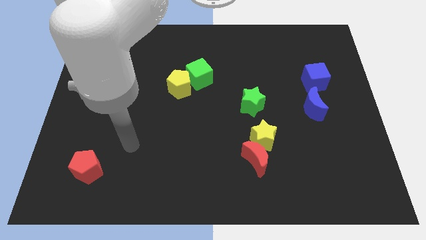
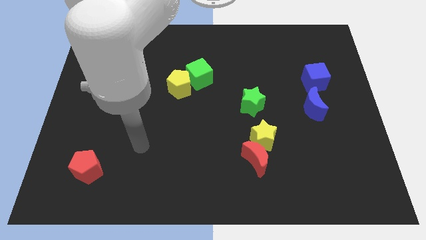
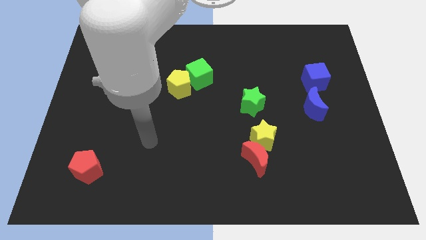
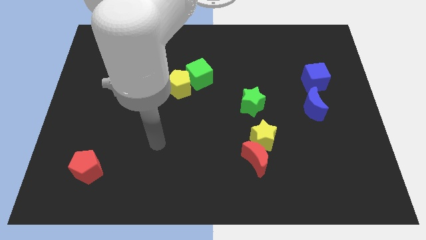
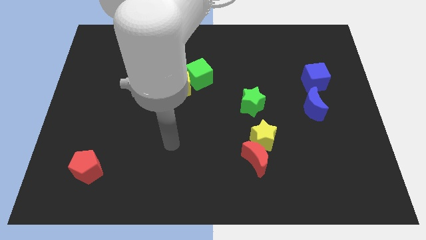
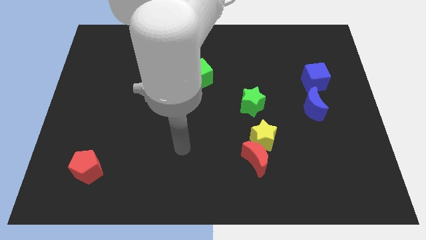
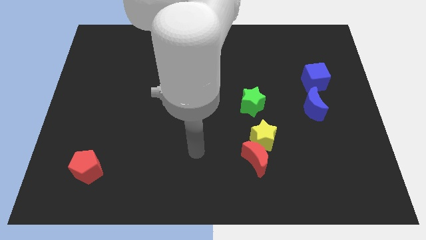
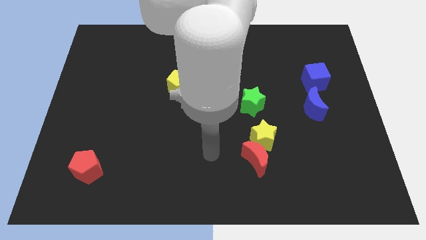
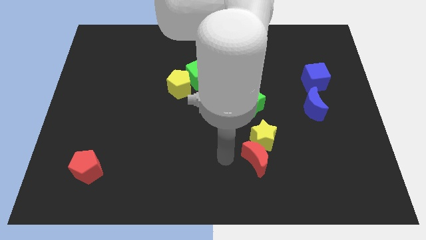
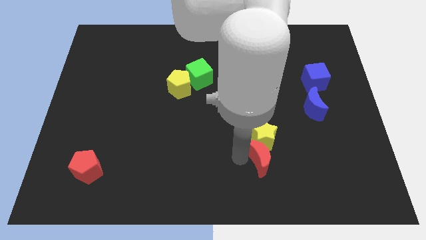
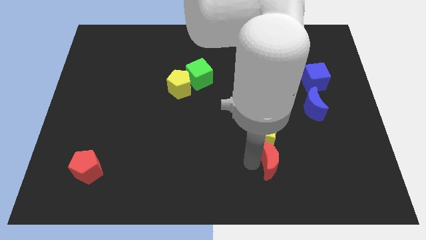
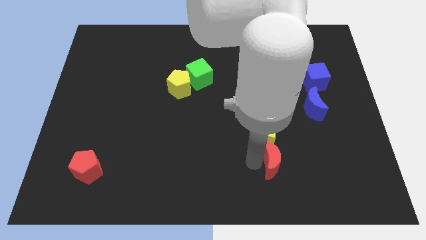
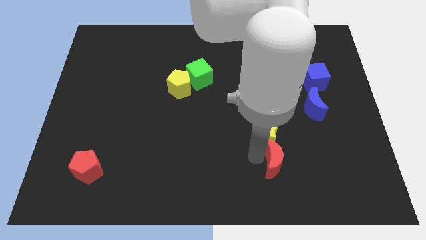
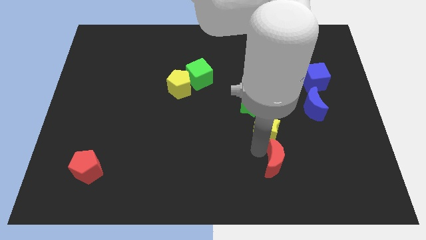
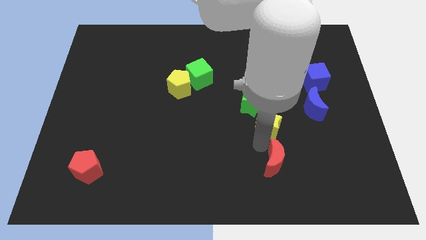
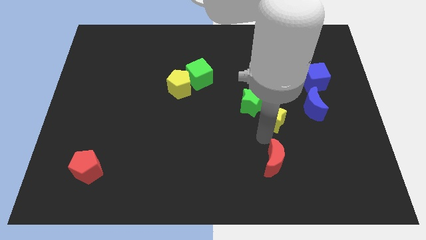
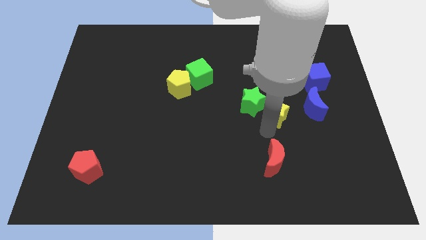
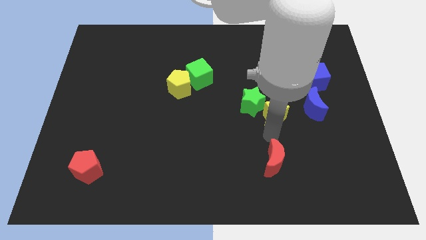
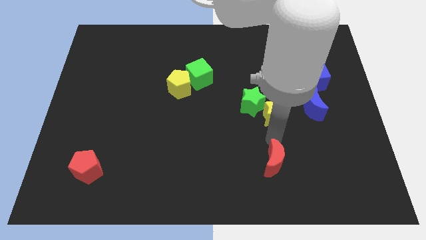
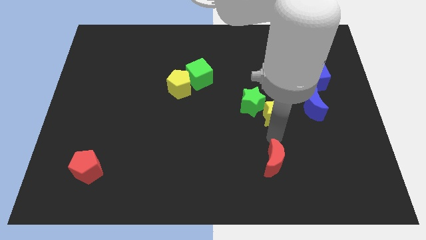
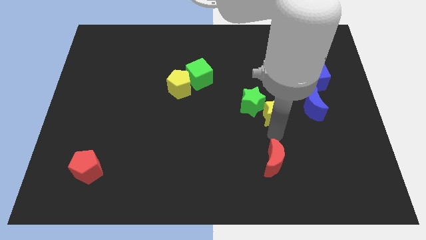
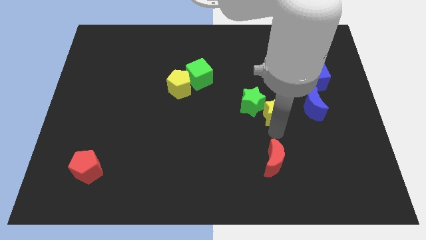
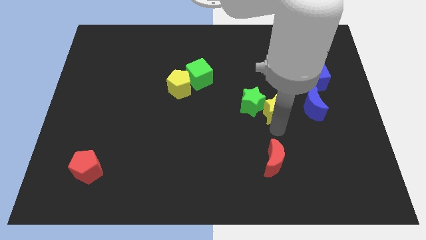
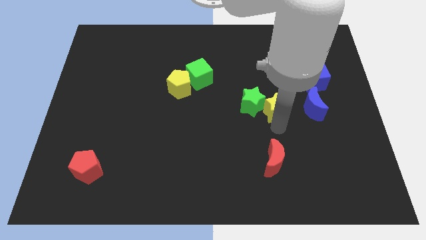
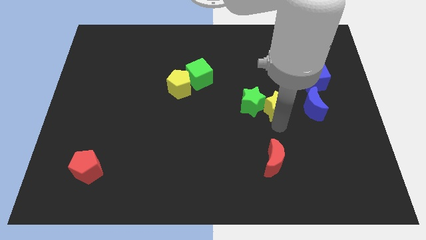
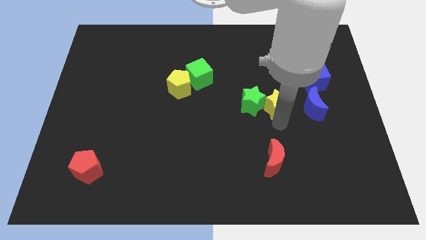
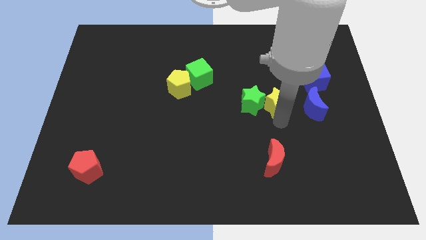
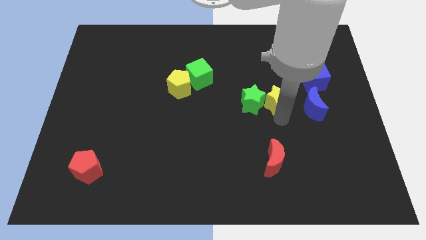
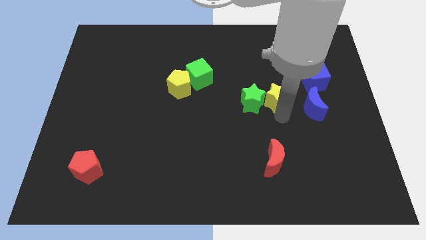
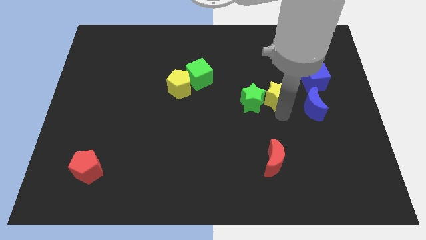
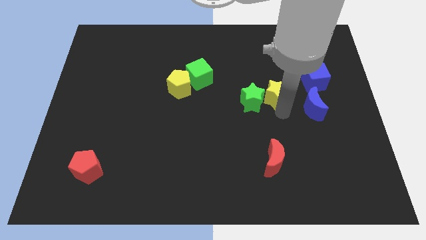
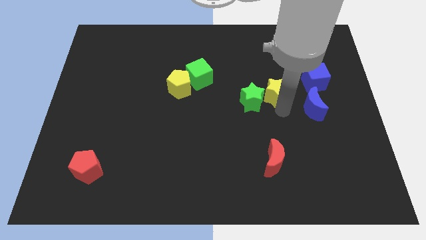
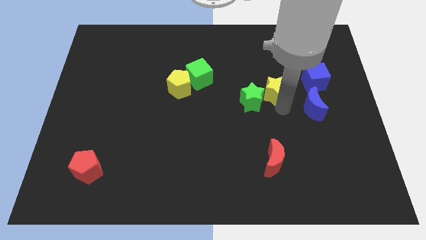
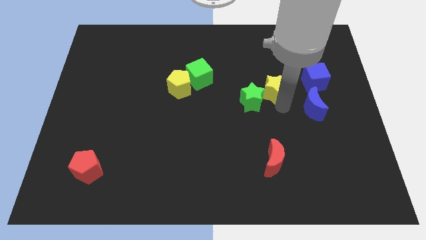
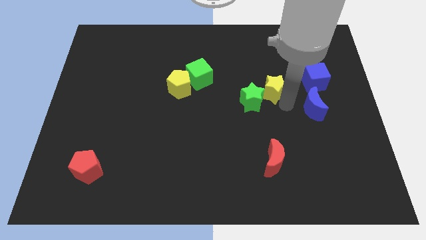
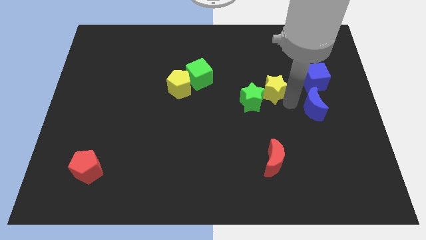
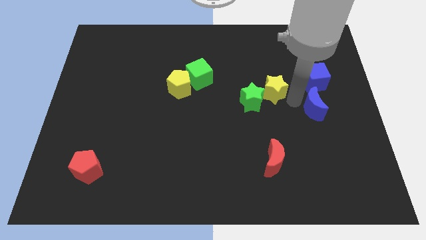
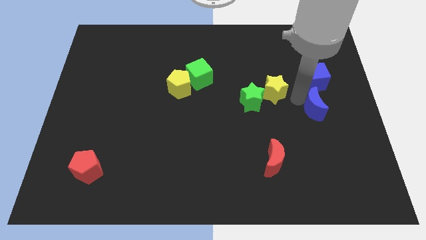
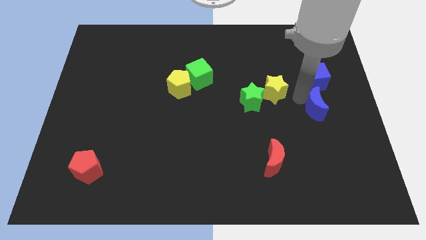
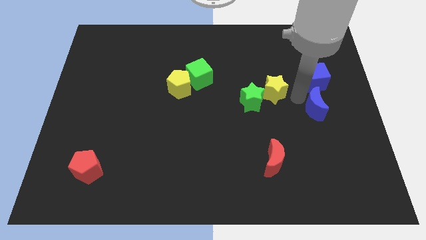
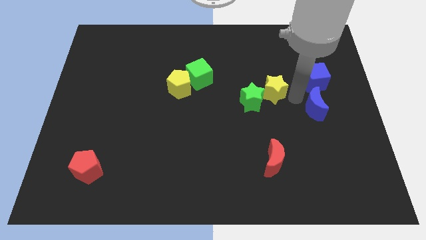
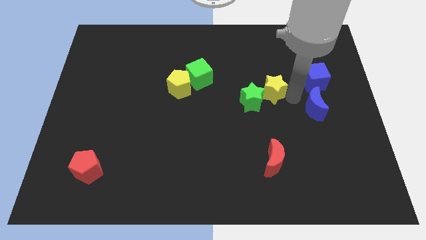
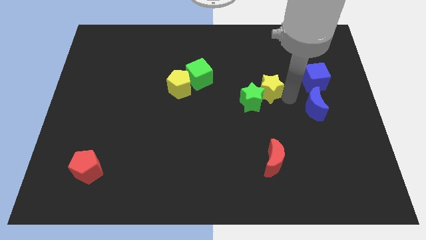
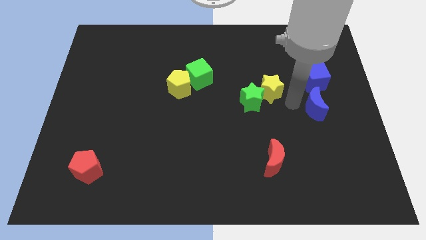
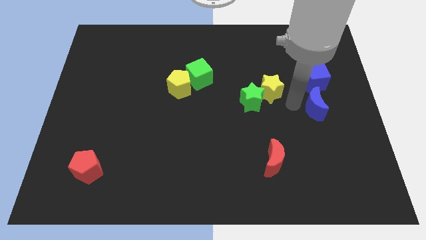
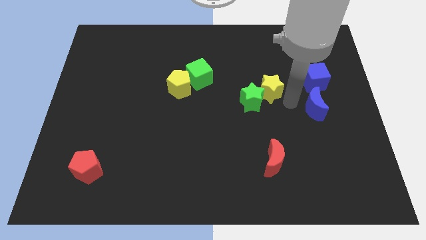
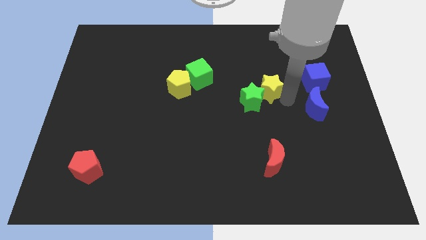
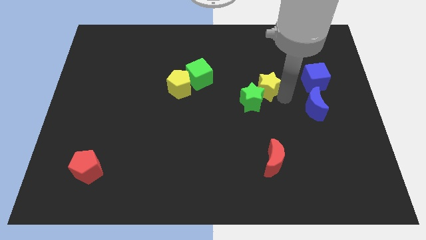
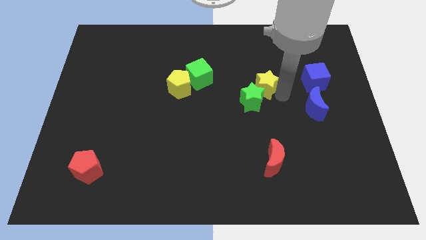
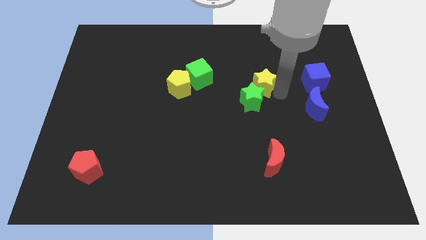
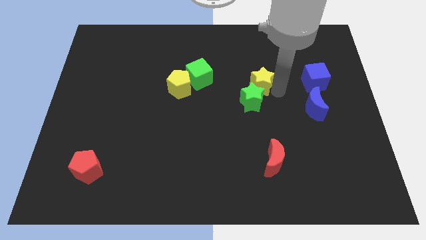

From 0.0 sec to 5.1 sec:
move the yellow star just right of the green cube

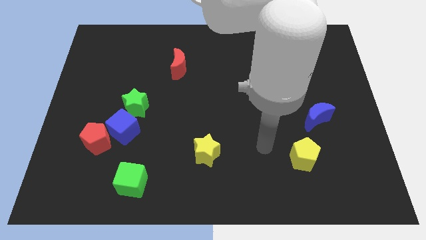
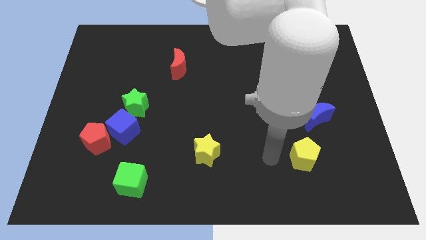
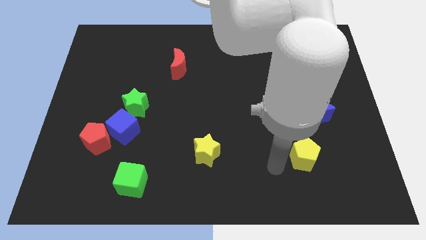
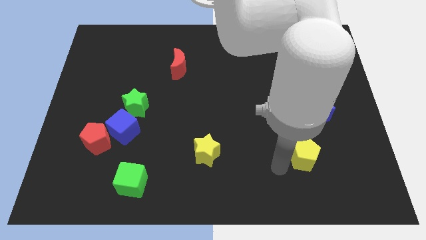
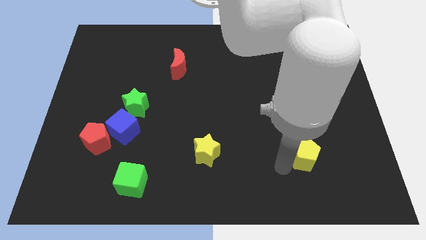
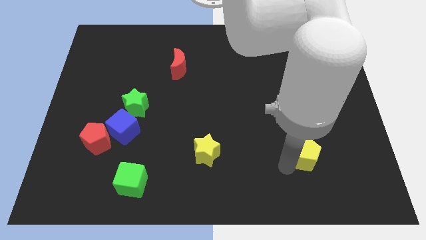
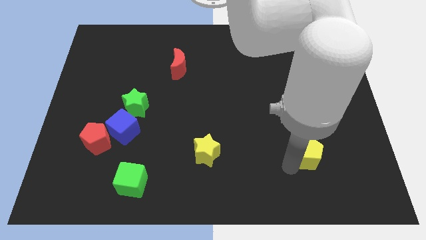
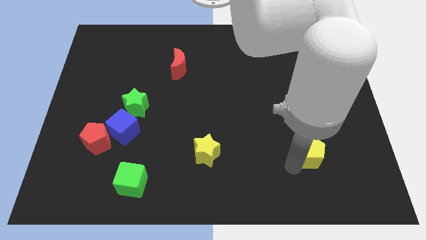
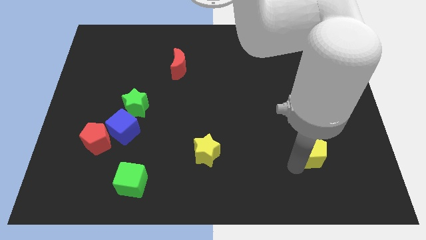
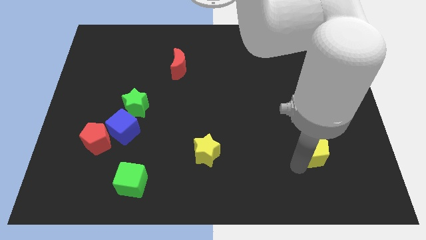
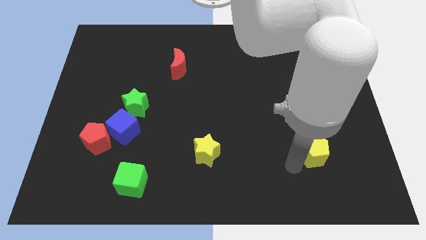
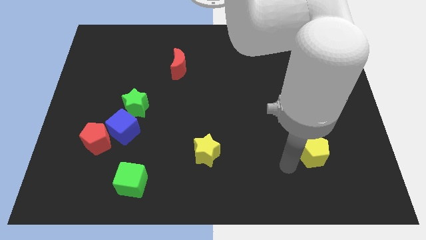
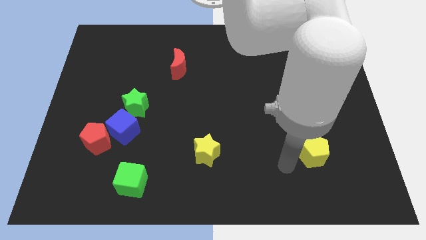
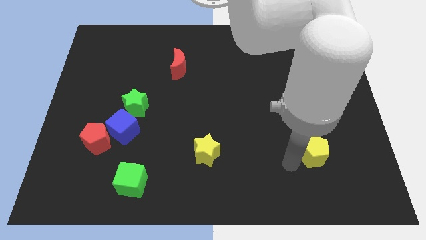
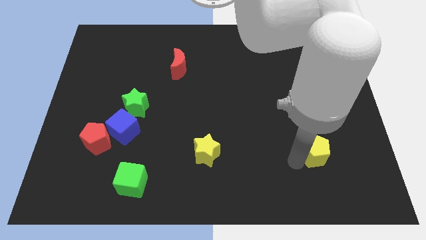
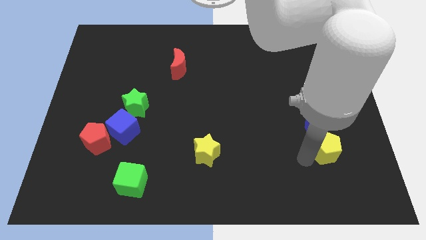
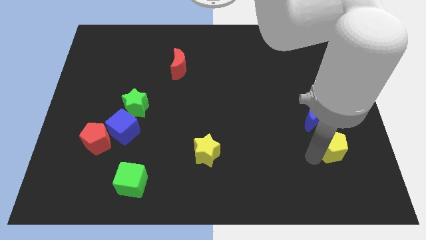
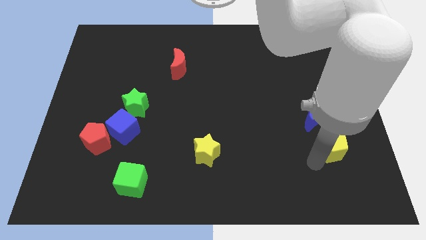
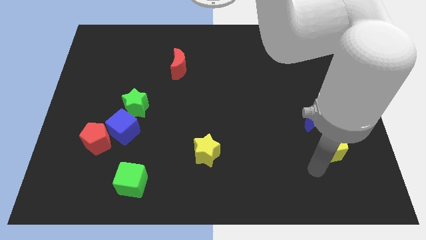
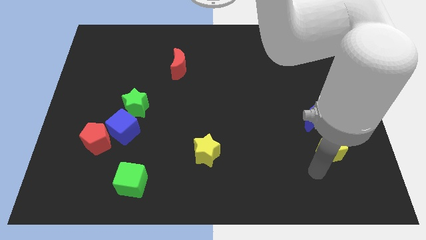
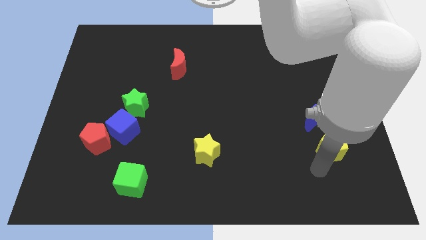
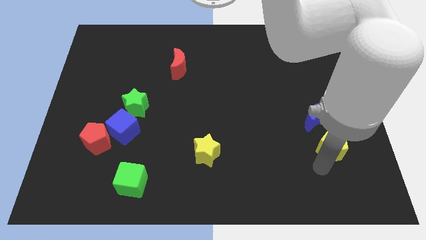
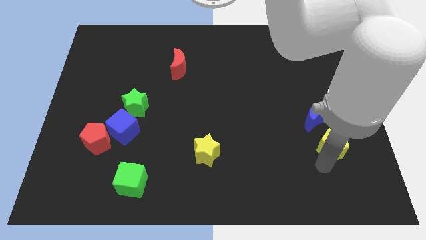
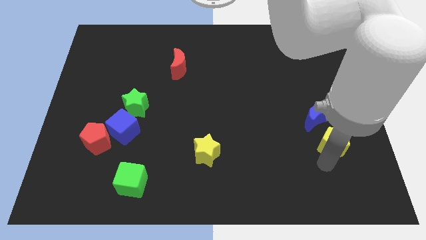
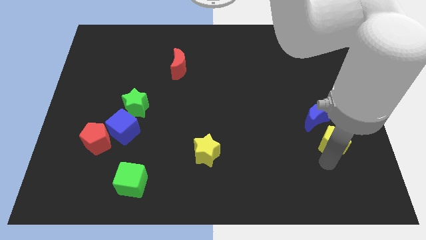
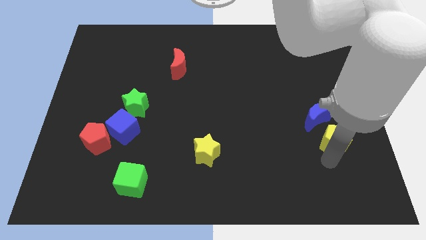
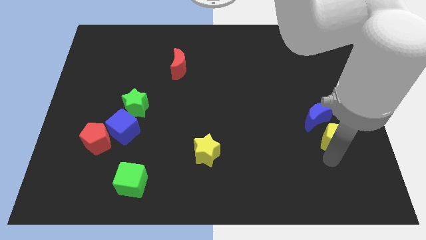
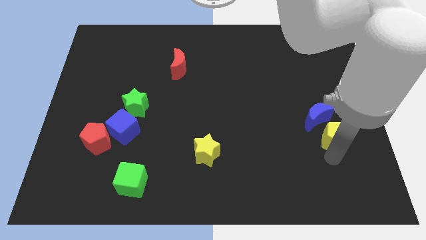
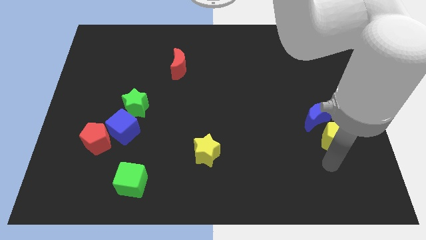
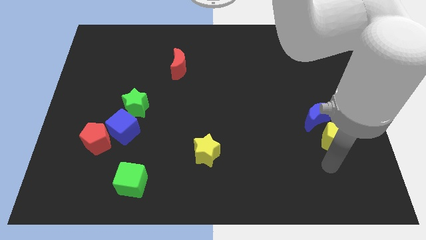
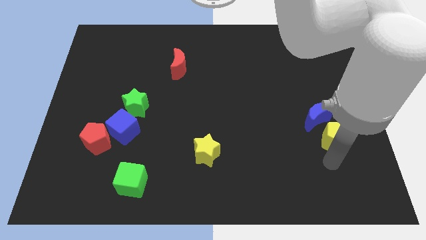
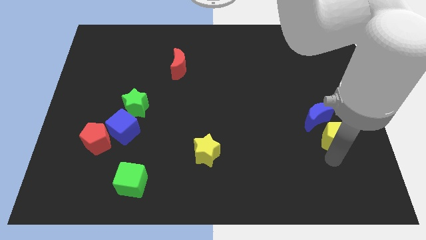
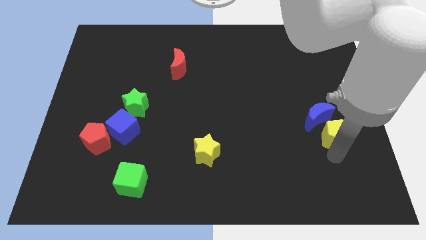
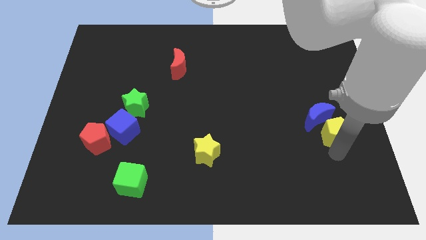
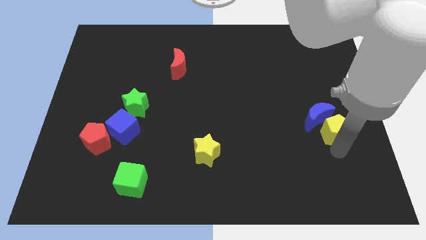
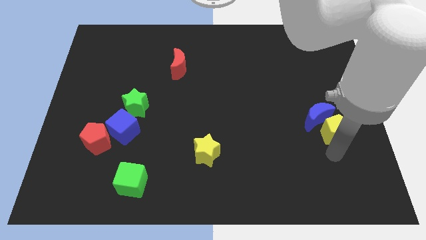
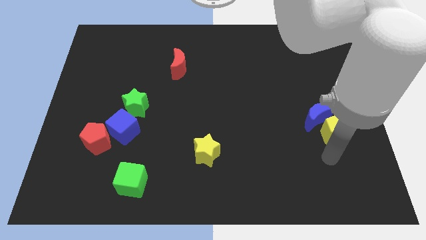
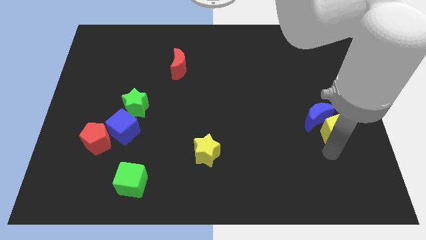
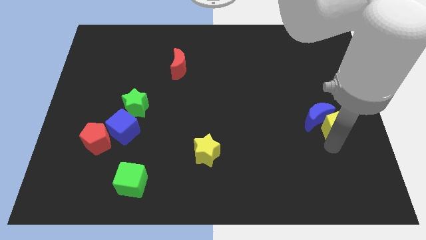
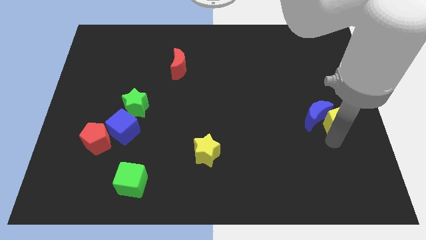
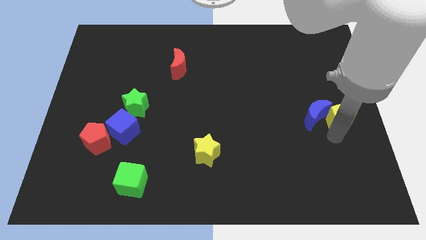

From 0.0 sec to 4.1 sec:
put the yellow pentagon diagonally up and to the right of the blue moon
